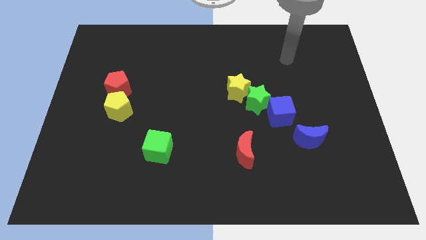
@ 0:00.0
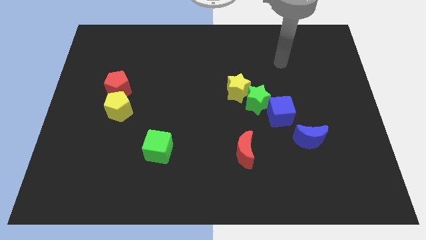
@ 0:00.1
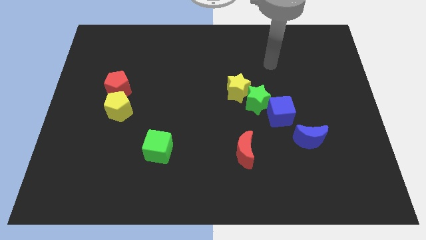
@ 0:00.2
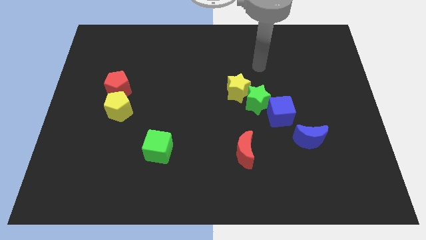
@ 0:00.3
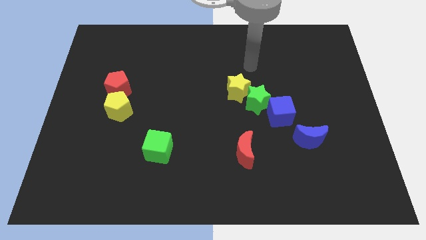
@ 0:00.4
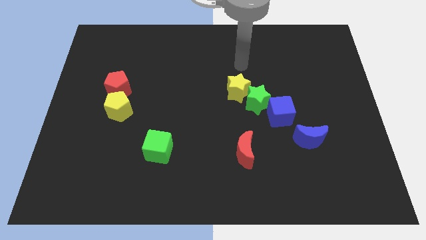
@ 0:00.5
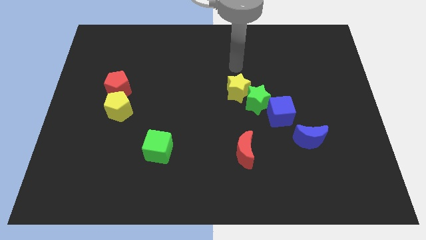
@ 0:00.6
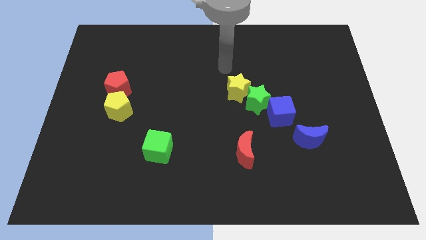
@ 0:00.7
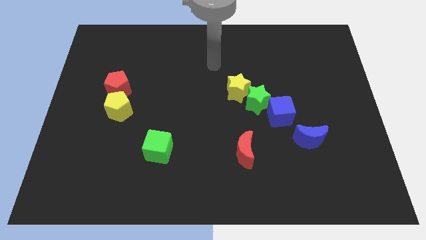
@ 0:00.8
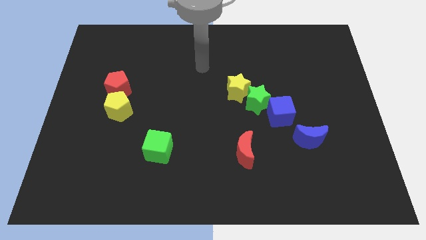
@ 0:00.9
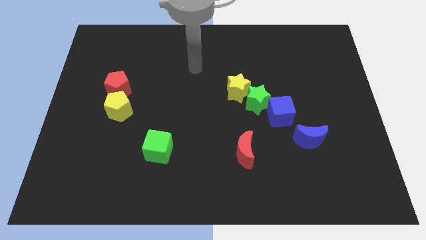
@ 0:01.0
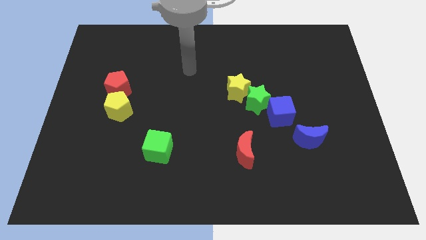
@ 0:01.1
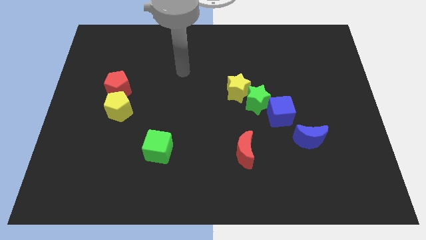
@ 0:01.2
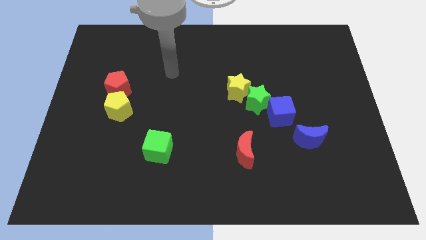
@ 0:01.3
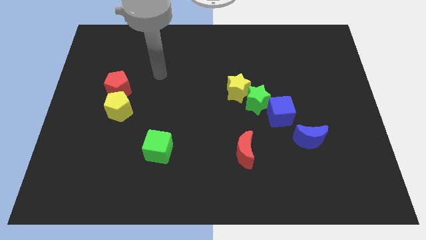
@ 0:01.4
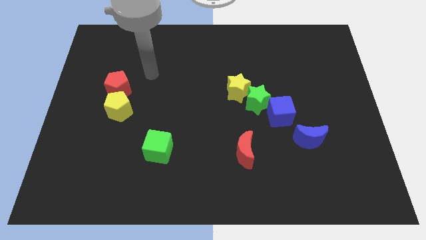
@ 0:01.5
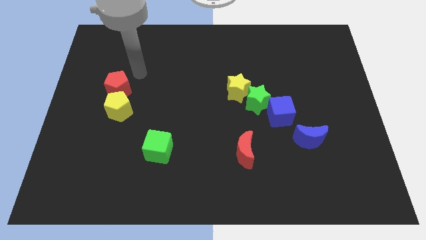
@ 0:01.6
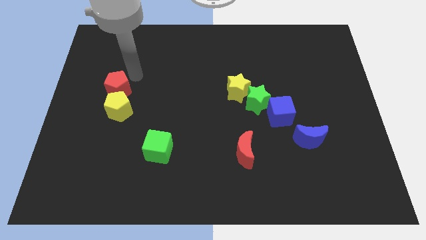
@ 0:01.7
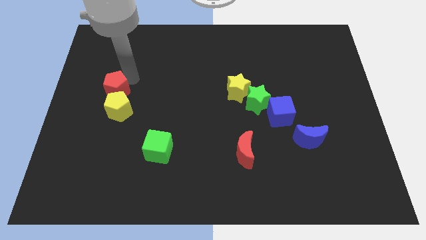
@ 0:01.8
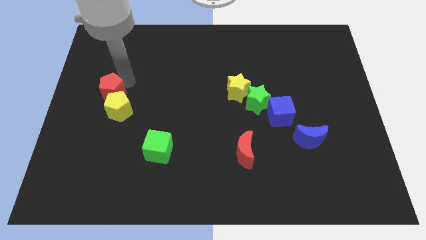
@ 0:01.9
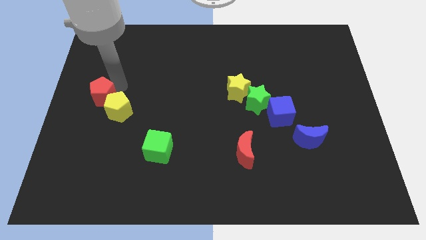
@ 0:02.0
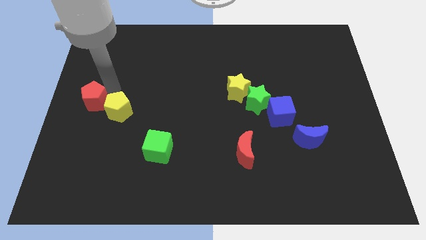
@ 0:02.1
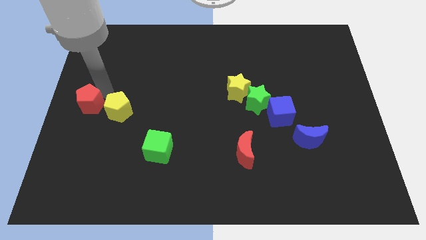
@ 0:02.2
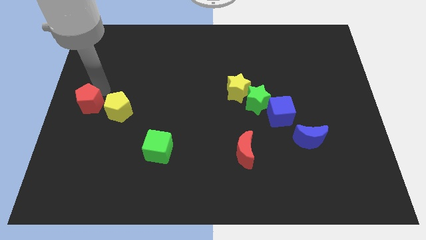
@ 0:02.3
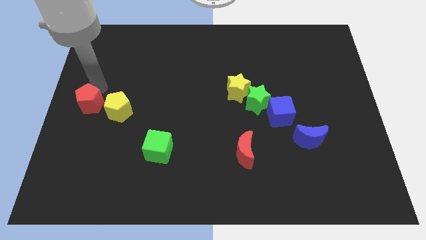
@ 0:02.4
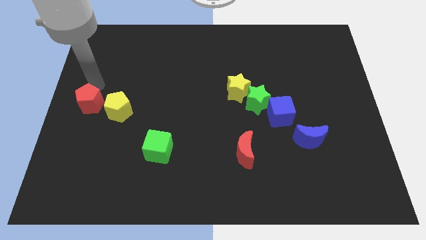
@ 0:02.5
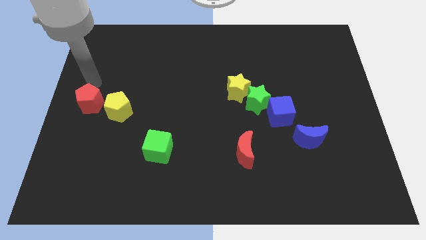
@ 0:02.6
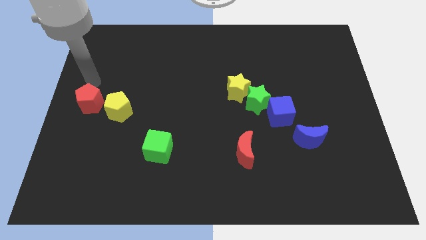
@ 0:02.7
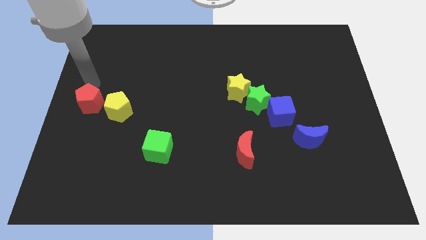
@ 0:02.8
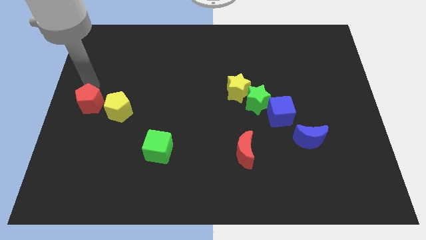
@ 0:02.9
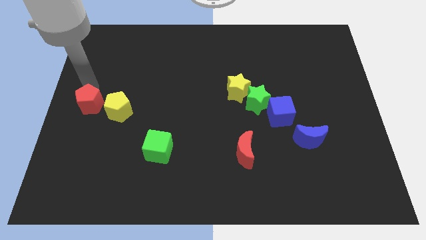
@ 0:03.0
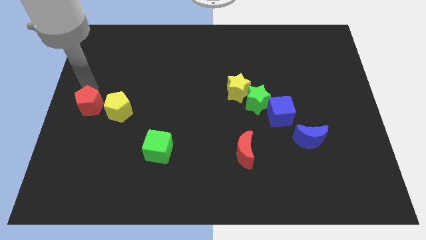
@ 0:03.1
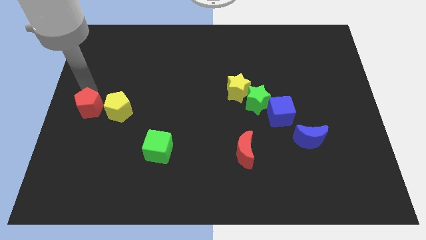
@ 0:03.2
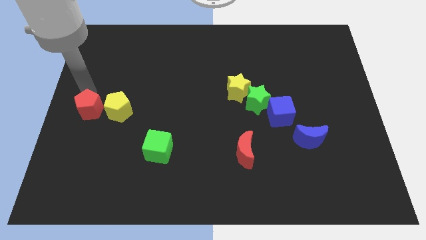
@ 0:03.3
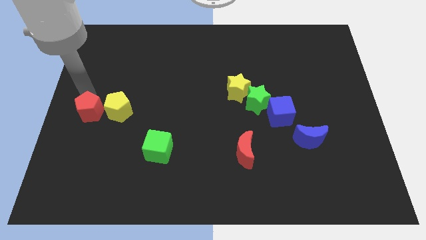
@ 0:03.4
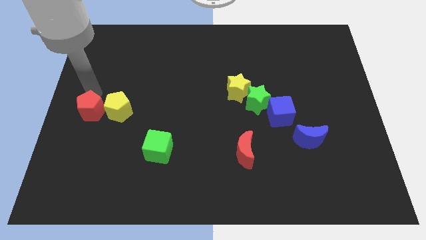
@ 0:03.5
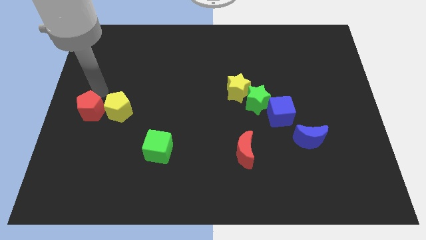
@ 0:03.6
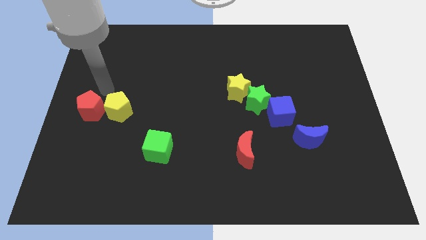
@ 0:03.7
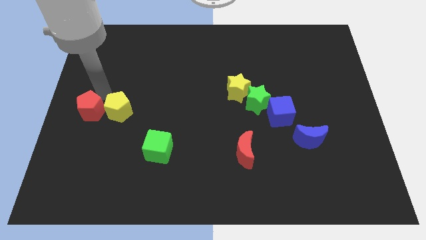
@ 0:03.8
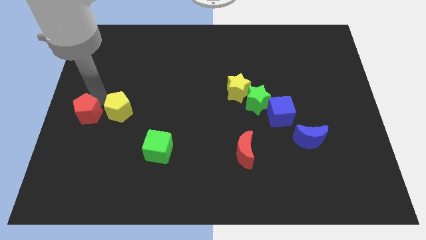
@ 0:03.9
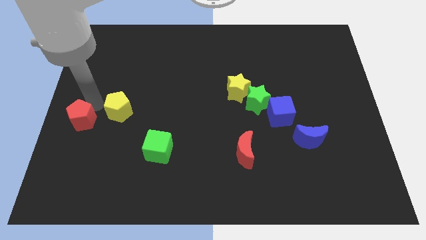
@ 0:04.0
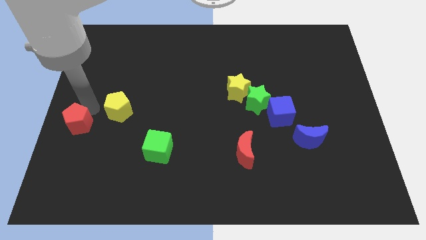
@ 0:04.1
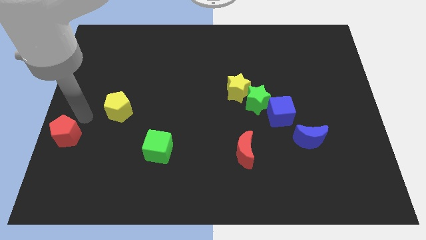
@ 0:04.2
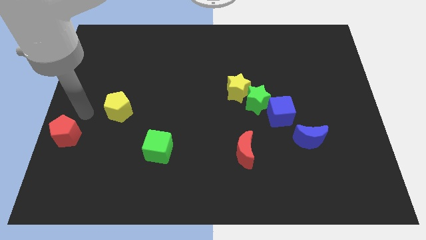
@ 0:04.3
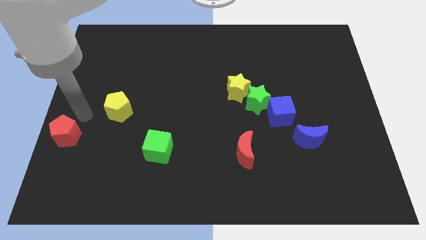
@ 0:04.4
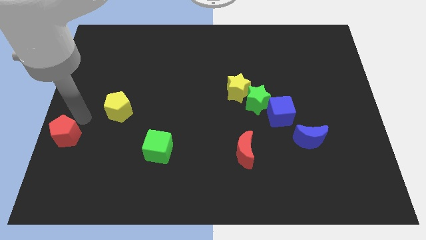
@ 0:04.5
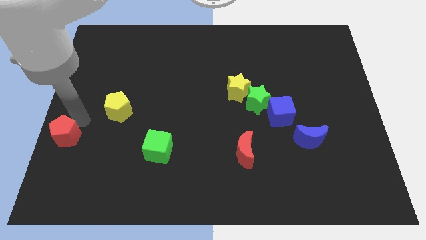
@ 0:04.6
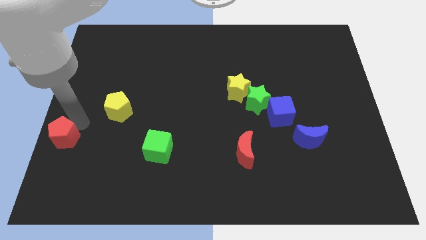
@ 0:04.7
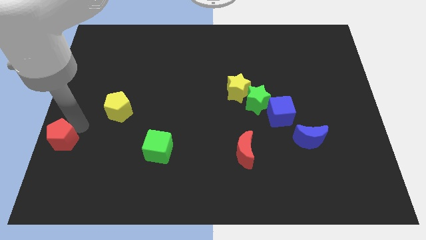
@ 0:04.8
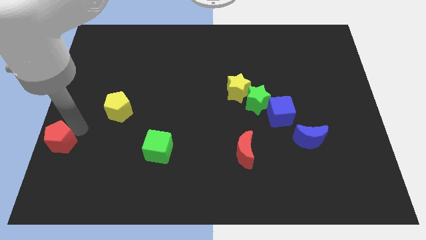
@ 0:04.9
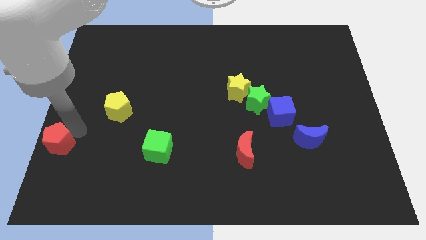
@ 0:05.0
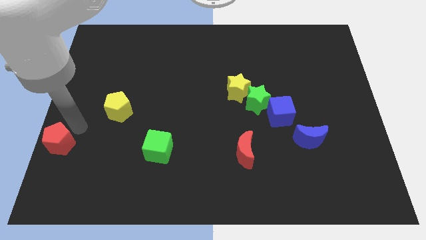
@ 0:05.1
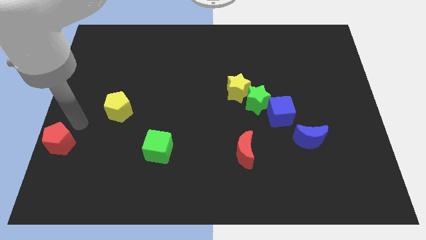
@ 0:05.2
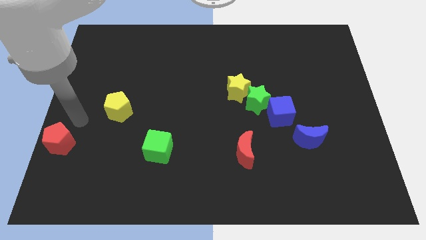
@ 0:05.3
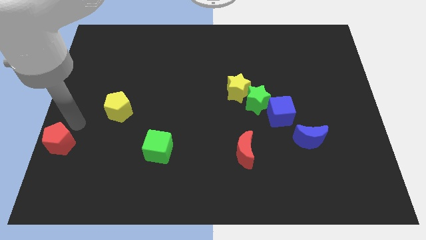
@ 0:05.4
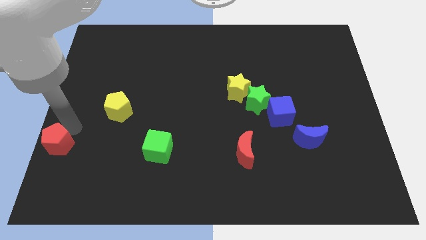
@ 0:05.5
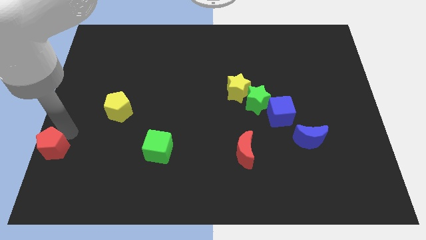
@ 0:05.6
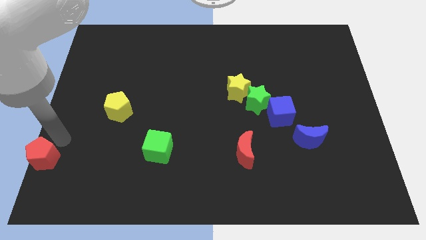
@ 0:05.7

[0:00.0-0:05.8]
move the red pentagon to the bottom left of the board

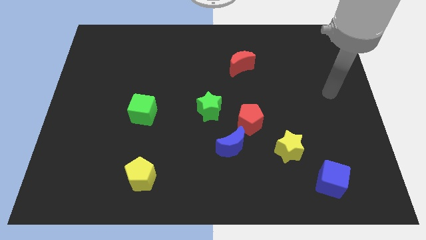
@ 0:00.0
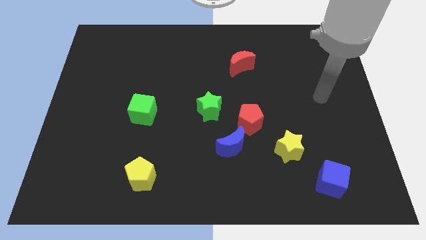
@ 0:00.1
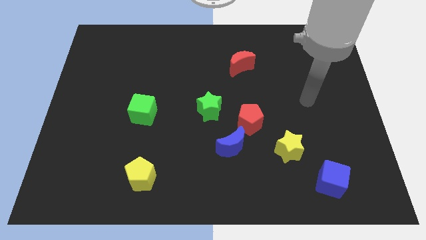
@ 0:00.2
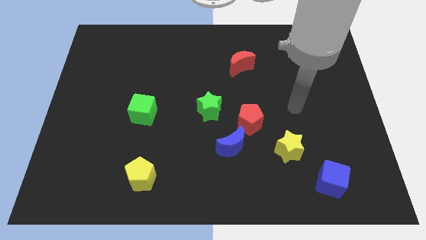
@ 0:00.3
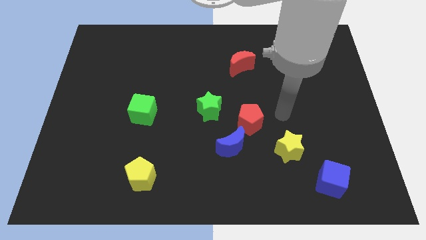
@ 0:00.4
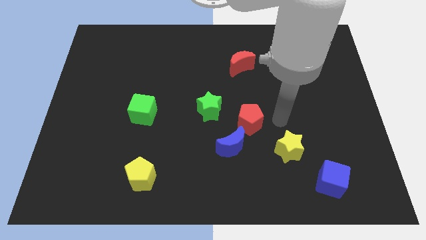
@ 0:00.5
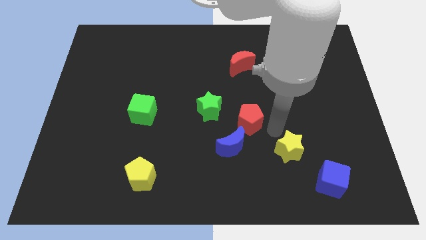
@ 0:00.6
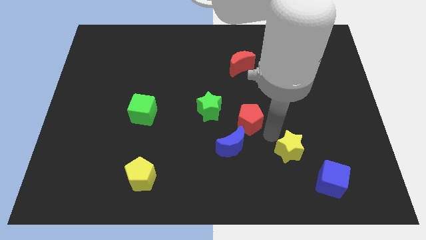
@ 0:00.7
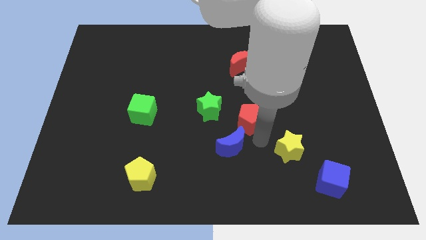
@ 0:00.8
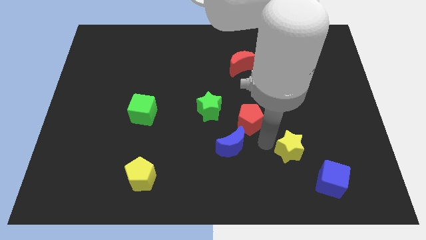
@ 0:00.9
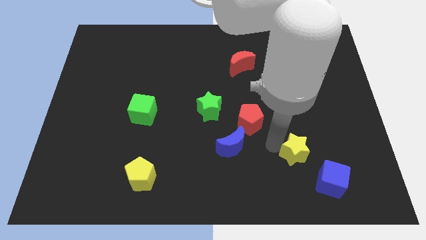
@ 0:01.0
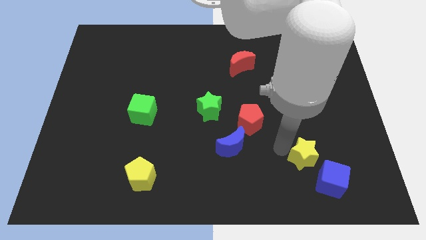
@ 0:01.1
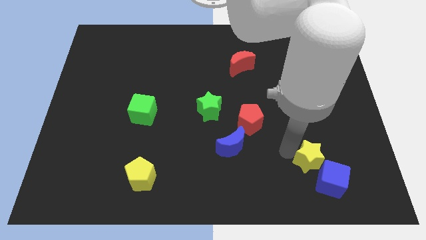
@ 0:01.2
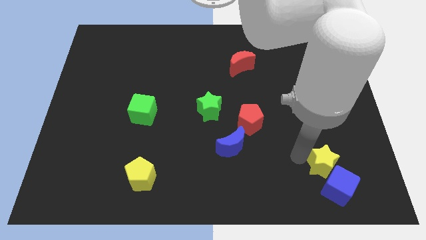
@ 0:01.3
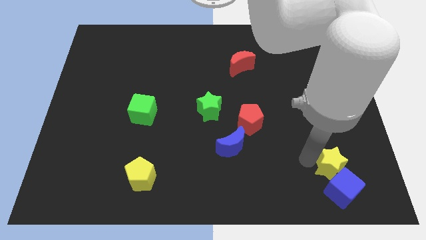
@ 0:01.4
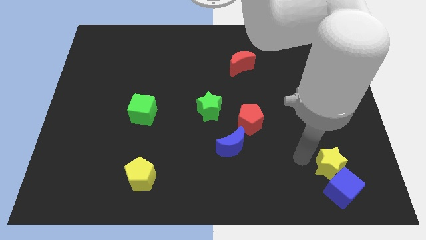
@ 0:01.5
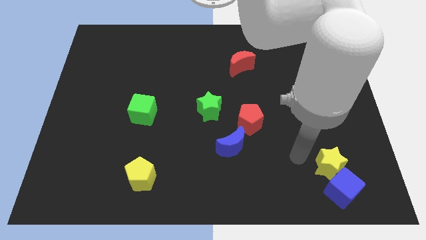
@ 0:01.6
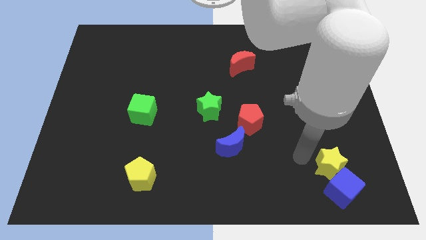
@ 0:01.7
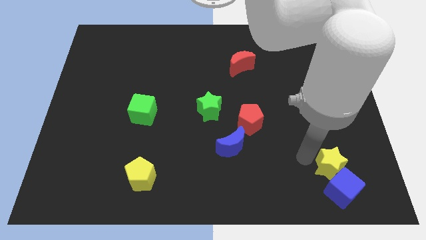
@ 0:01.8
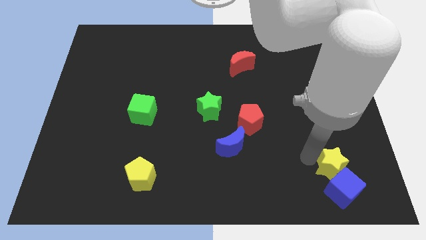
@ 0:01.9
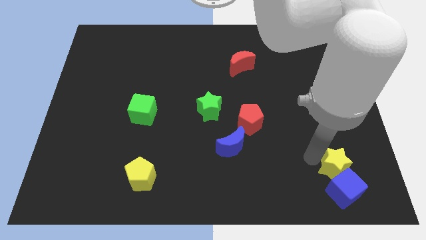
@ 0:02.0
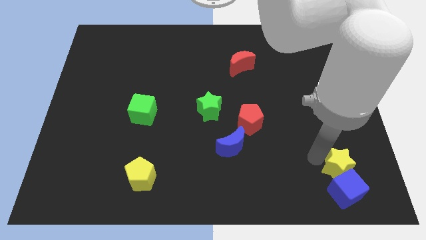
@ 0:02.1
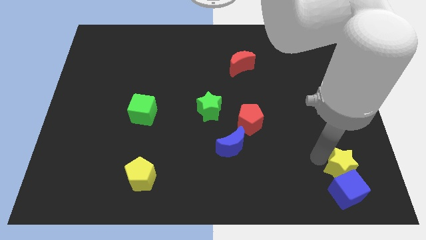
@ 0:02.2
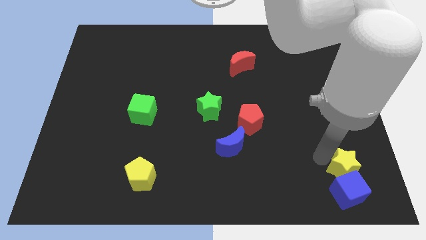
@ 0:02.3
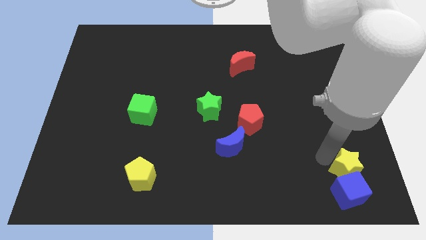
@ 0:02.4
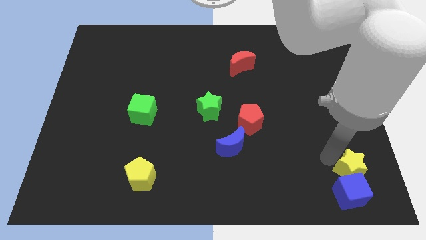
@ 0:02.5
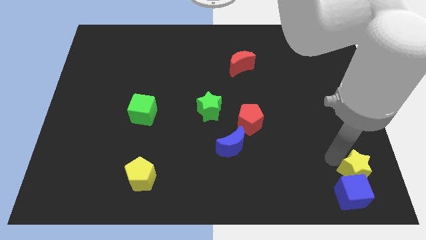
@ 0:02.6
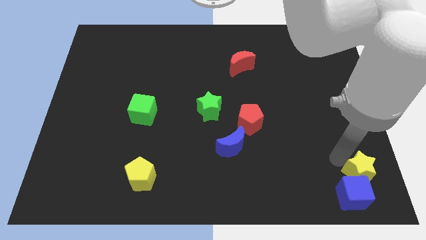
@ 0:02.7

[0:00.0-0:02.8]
put the yellow star to the bottom right of the board
